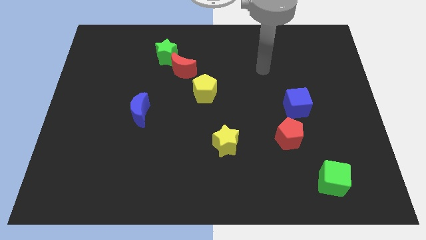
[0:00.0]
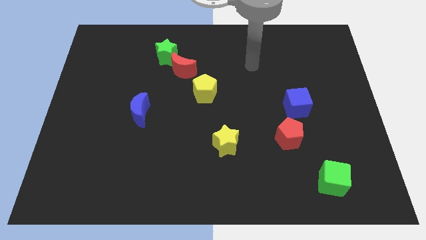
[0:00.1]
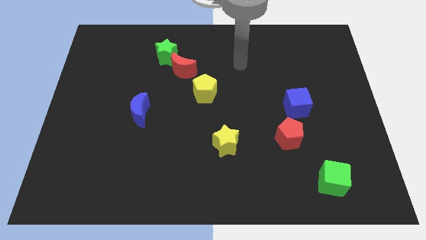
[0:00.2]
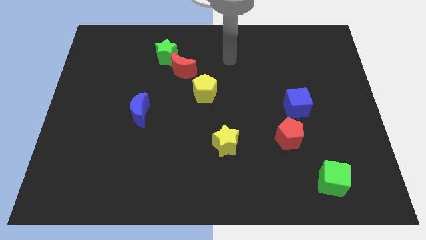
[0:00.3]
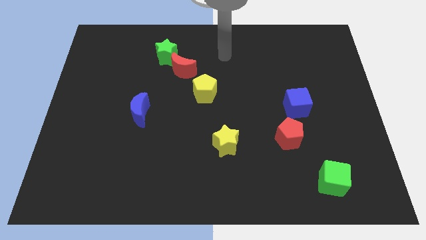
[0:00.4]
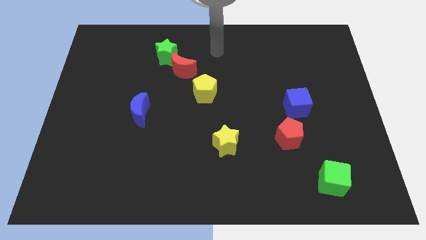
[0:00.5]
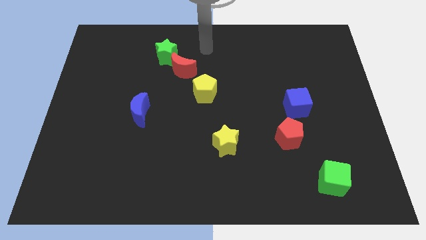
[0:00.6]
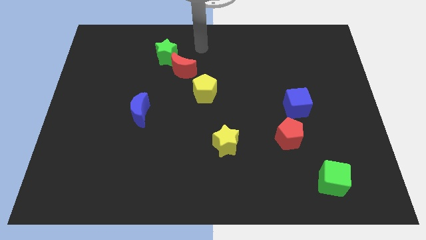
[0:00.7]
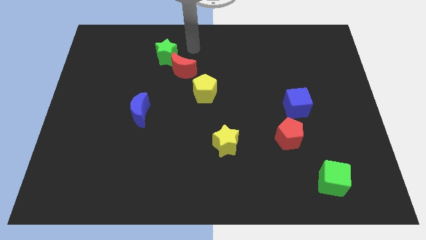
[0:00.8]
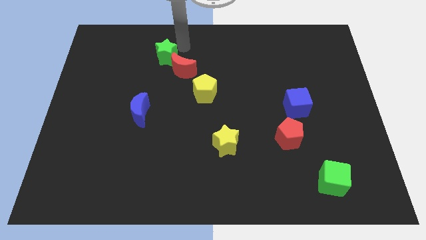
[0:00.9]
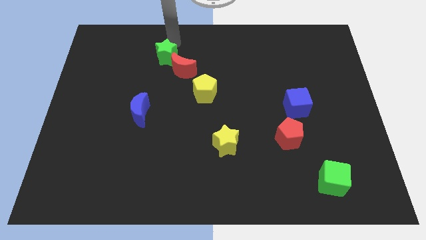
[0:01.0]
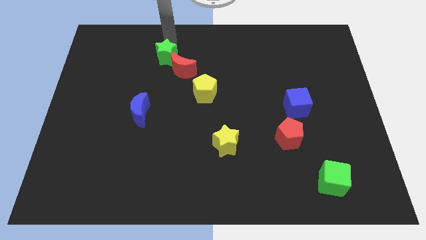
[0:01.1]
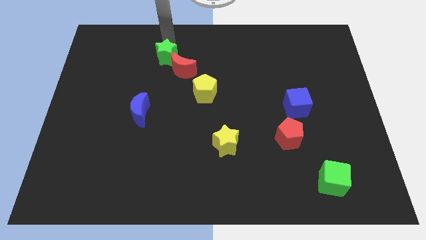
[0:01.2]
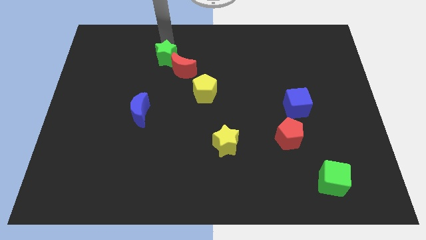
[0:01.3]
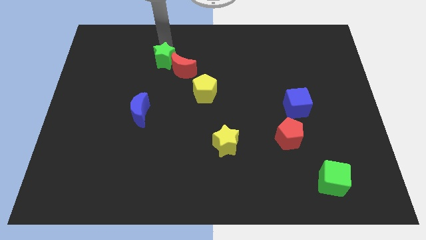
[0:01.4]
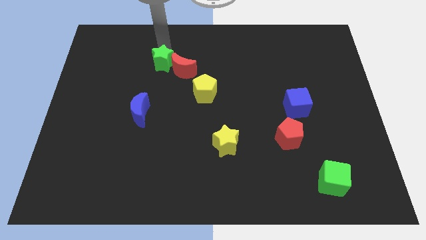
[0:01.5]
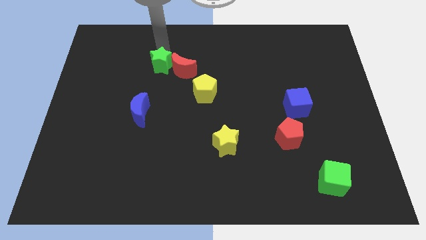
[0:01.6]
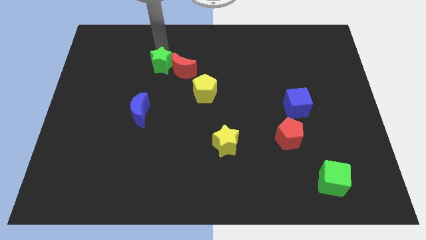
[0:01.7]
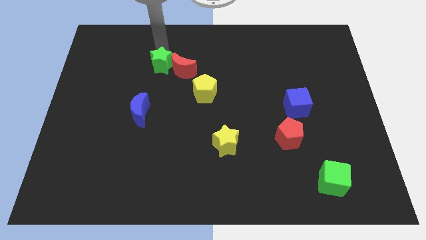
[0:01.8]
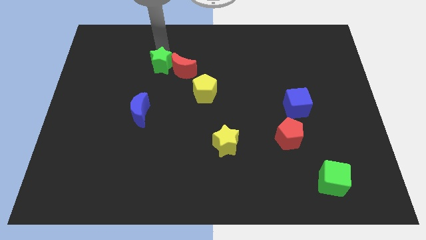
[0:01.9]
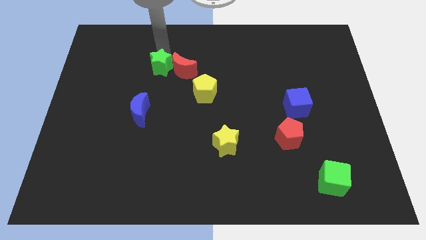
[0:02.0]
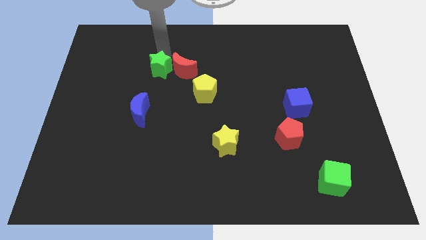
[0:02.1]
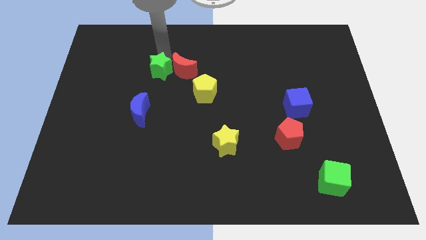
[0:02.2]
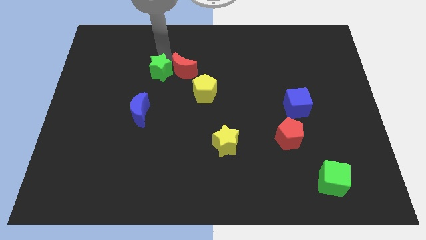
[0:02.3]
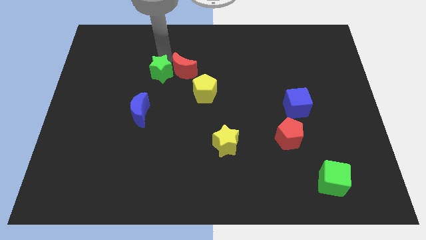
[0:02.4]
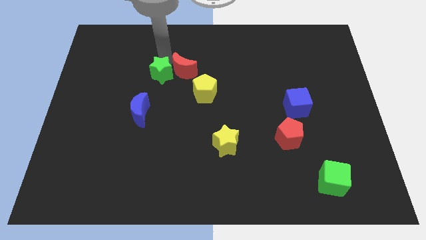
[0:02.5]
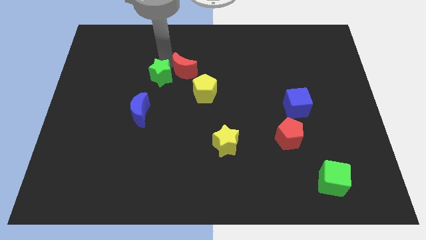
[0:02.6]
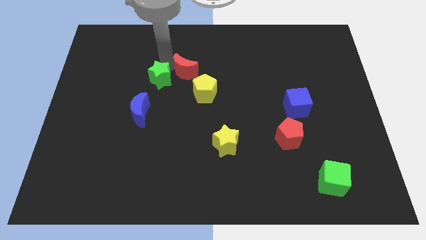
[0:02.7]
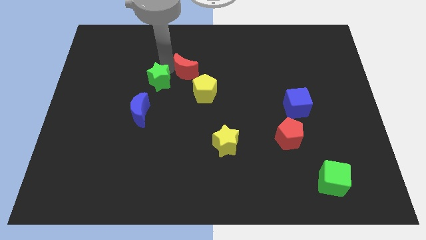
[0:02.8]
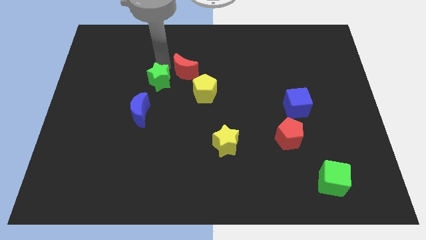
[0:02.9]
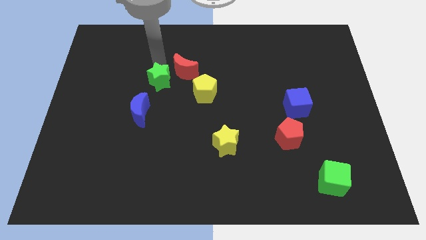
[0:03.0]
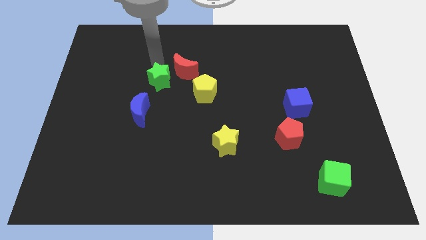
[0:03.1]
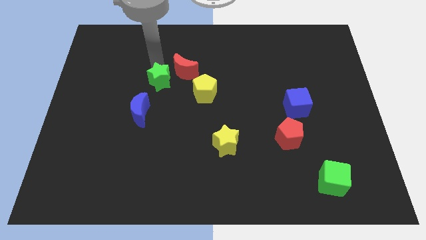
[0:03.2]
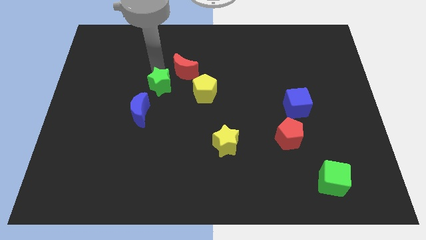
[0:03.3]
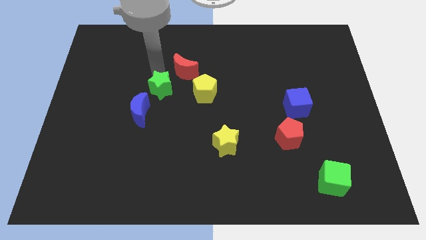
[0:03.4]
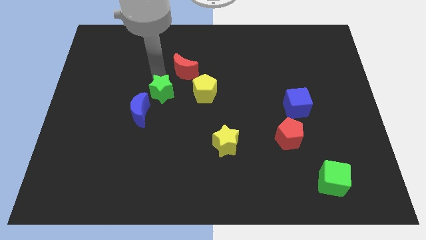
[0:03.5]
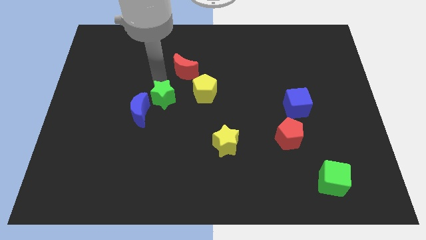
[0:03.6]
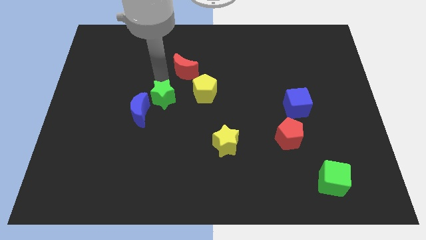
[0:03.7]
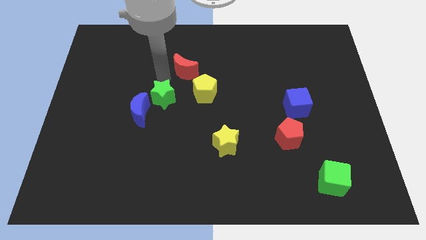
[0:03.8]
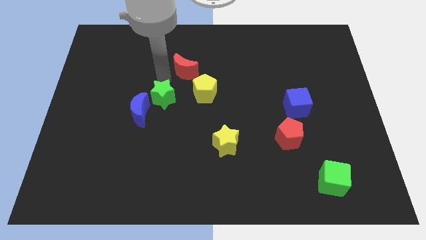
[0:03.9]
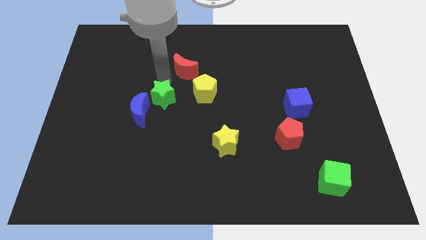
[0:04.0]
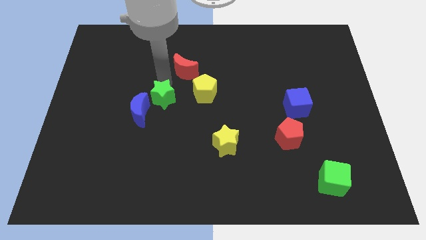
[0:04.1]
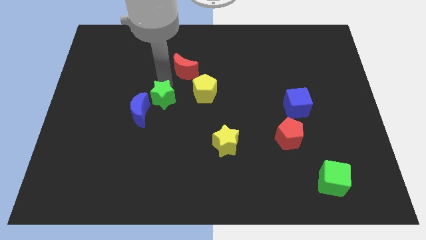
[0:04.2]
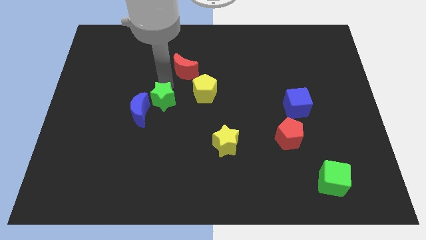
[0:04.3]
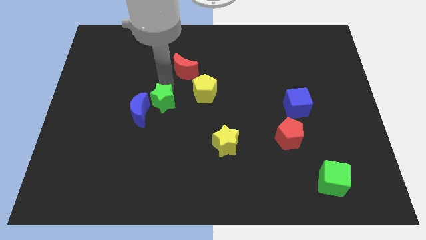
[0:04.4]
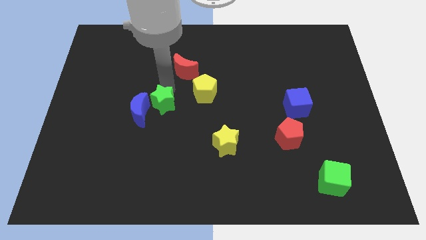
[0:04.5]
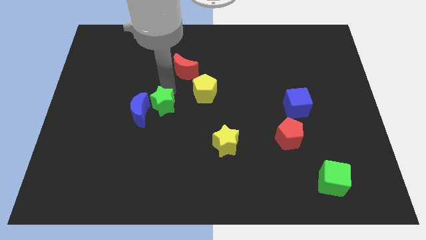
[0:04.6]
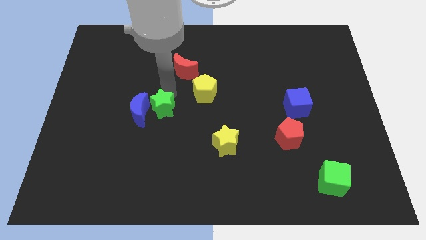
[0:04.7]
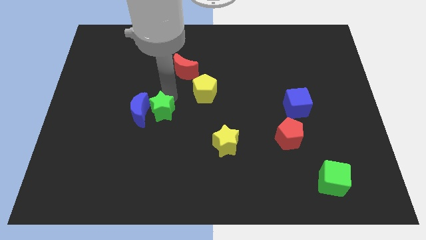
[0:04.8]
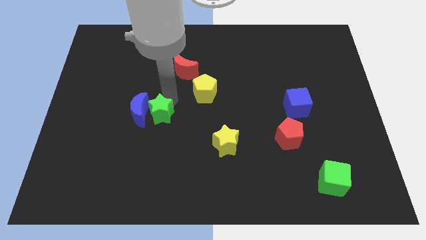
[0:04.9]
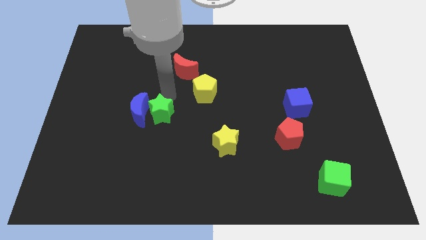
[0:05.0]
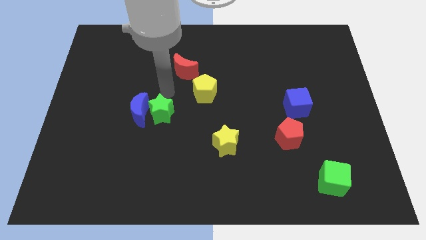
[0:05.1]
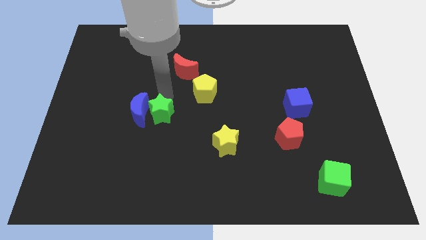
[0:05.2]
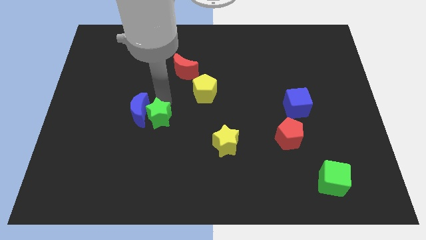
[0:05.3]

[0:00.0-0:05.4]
slide the green star down

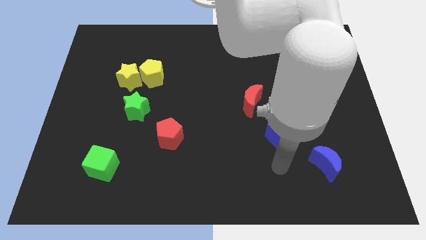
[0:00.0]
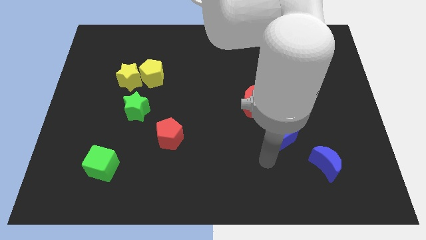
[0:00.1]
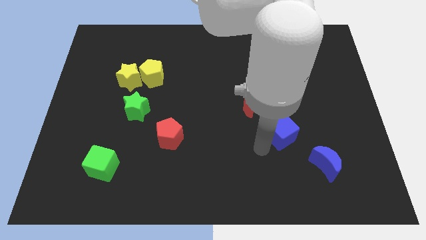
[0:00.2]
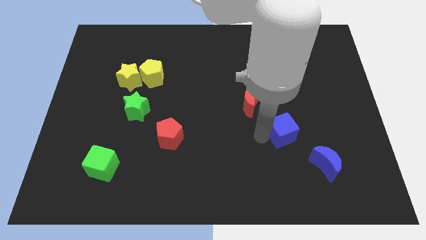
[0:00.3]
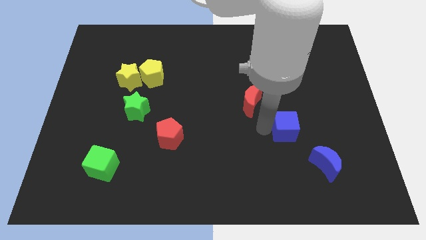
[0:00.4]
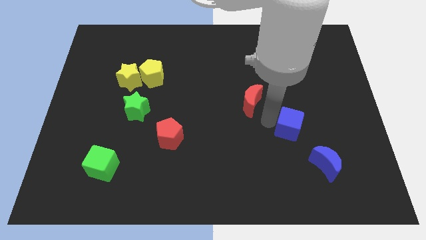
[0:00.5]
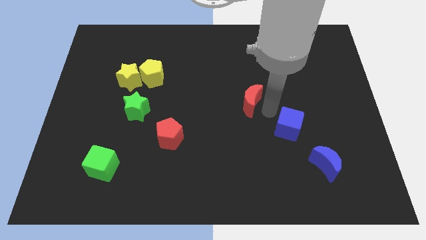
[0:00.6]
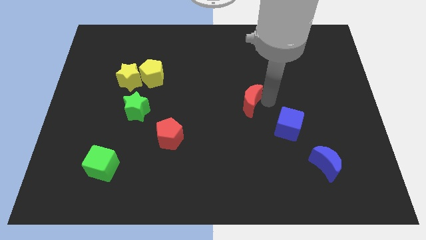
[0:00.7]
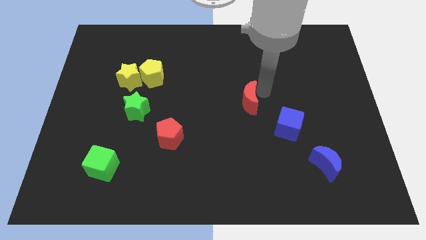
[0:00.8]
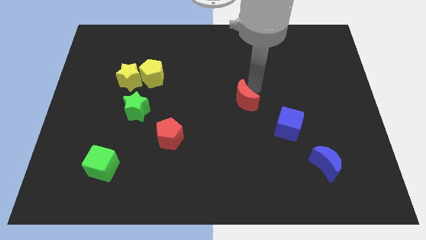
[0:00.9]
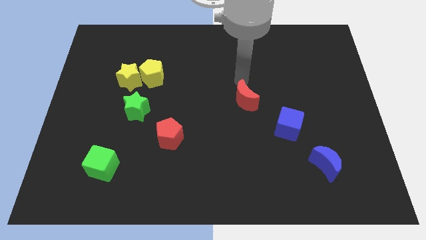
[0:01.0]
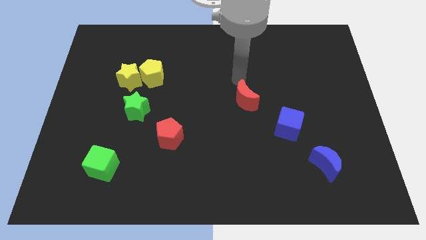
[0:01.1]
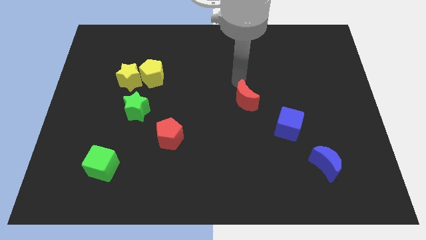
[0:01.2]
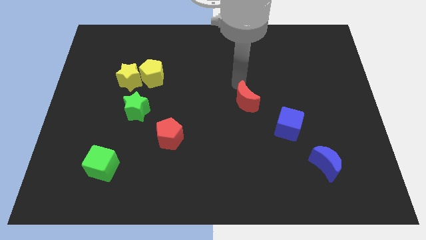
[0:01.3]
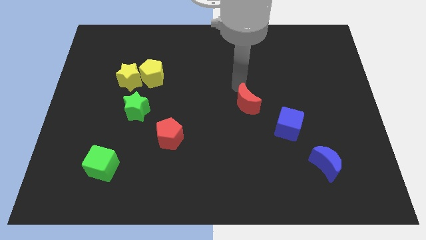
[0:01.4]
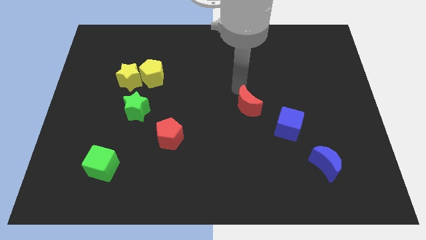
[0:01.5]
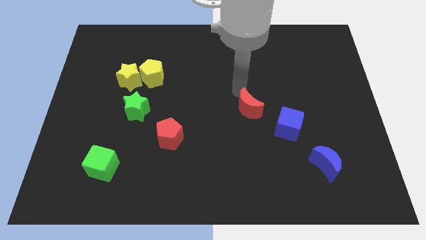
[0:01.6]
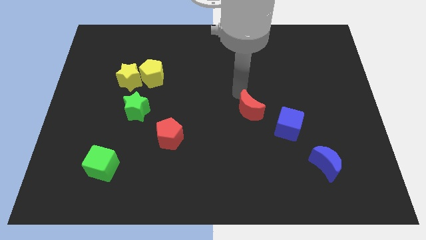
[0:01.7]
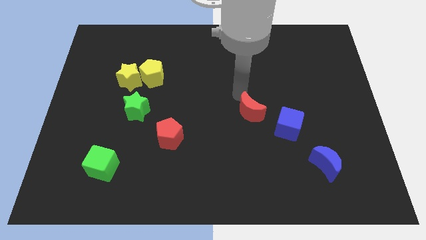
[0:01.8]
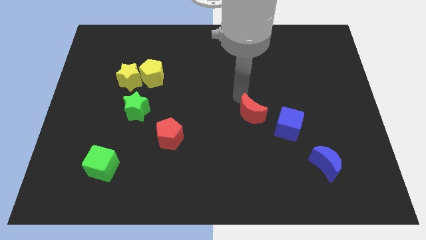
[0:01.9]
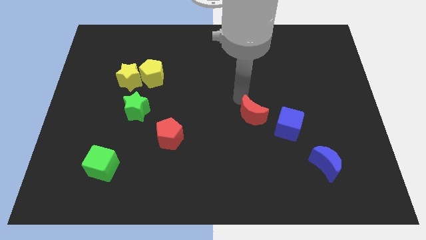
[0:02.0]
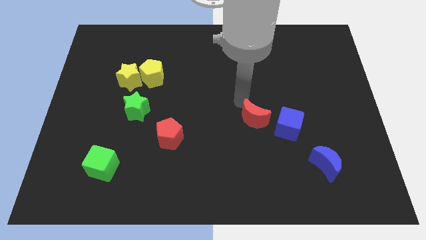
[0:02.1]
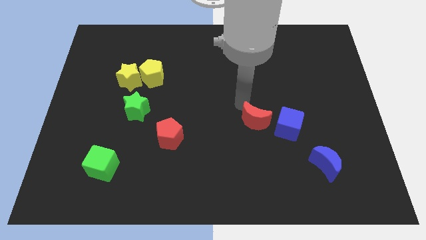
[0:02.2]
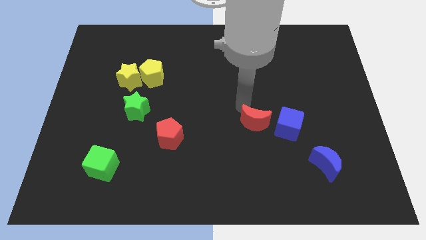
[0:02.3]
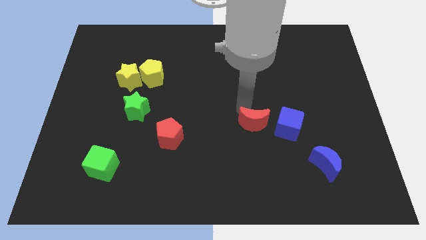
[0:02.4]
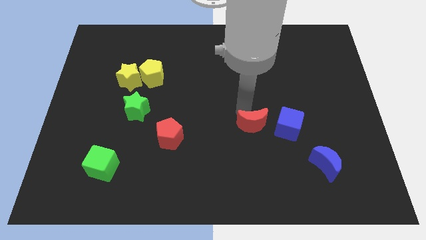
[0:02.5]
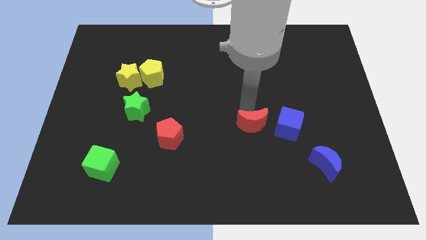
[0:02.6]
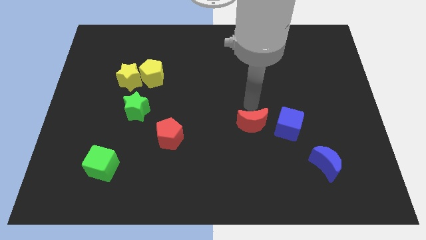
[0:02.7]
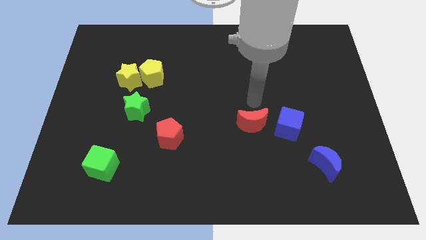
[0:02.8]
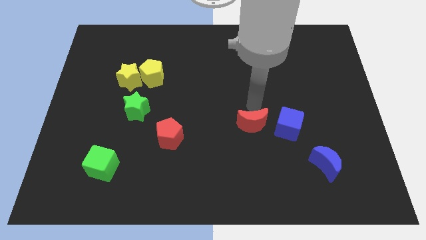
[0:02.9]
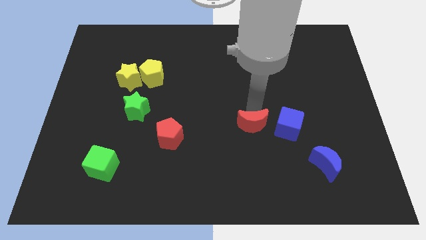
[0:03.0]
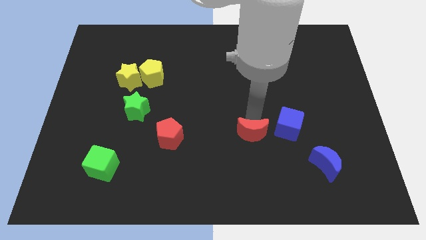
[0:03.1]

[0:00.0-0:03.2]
slightly push the red moon downwards
